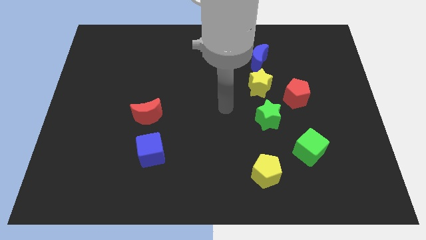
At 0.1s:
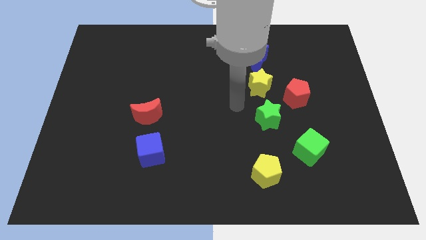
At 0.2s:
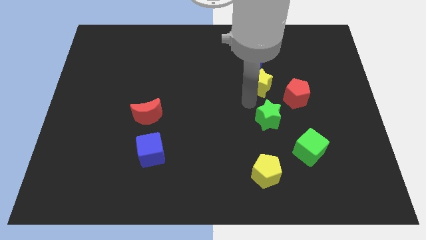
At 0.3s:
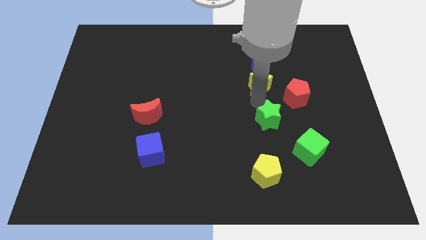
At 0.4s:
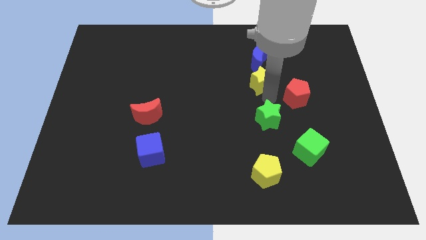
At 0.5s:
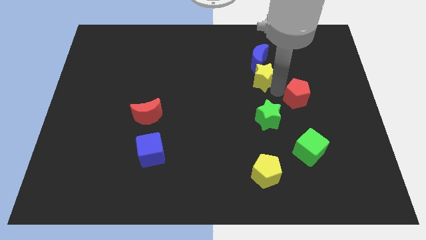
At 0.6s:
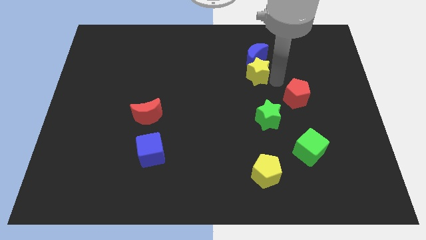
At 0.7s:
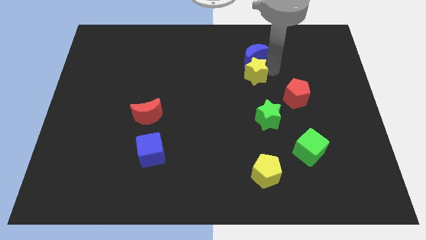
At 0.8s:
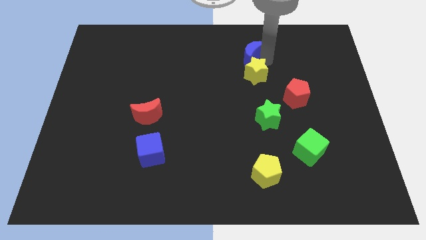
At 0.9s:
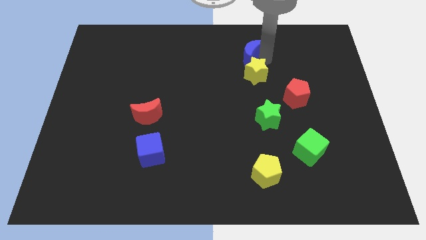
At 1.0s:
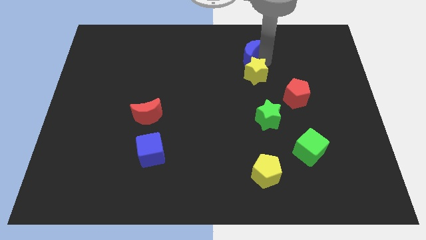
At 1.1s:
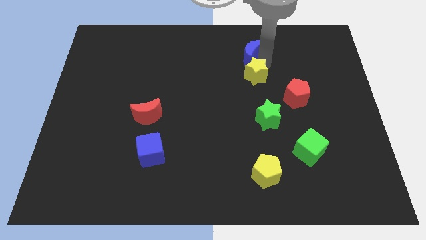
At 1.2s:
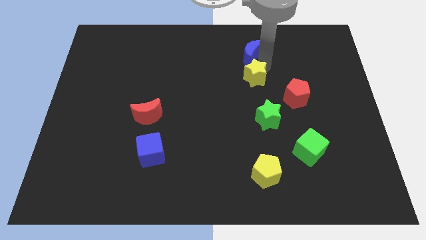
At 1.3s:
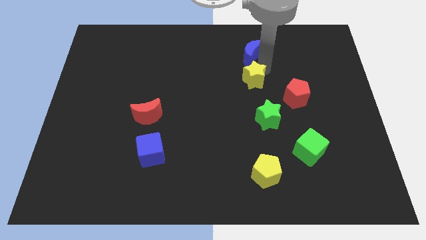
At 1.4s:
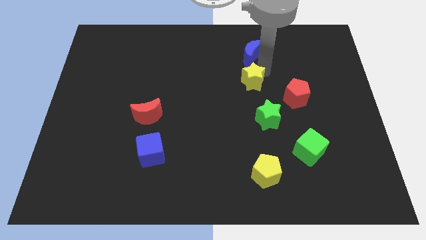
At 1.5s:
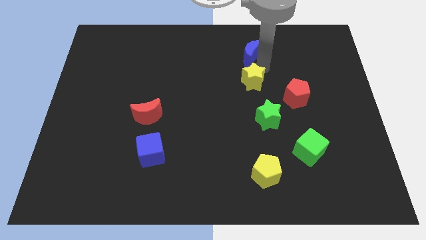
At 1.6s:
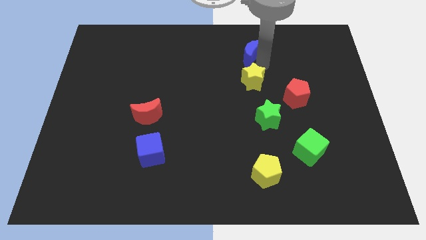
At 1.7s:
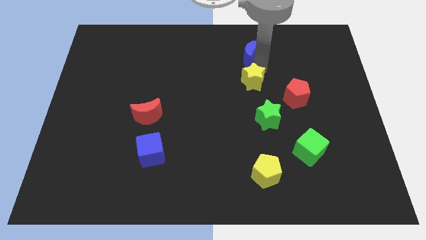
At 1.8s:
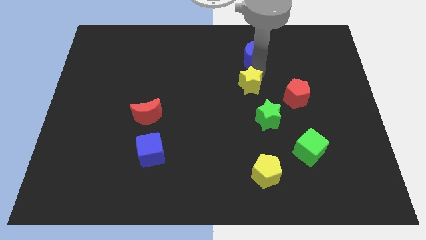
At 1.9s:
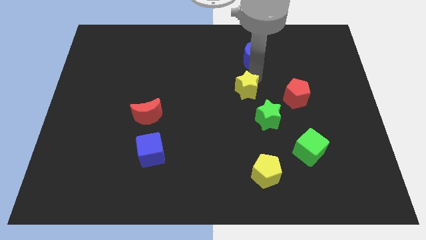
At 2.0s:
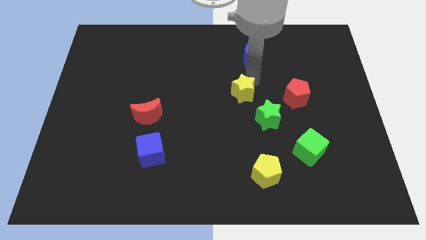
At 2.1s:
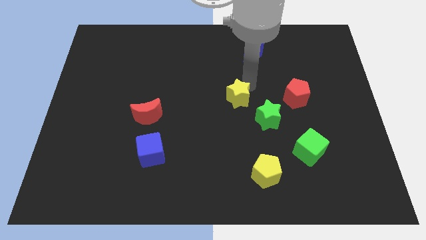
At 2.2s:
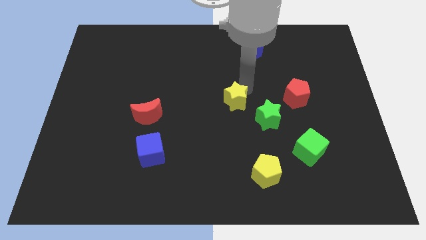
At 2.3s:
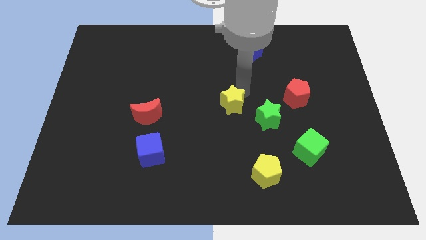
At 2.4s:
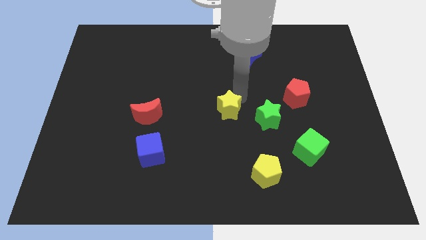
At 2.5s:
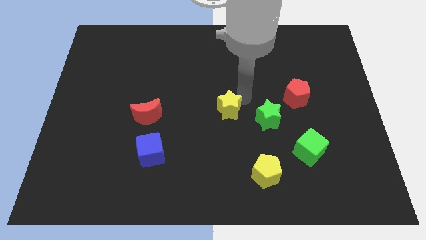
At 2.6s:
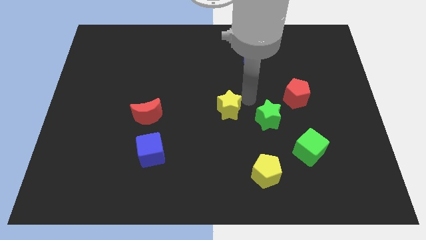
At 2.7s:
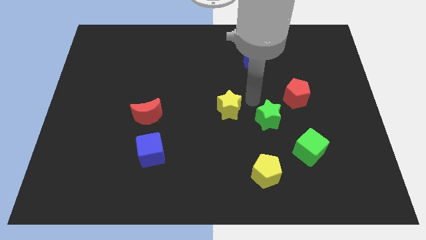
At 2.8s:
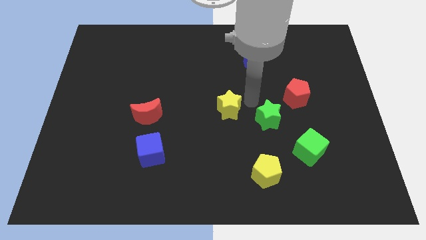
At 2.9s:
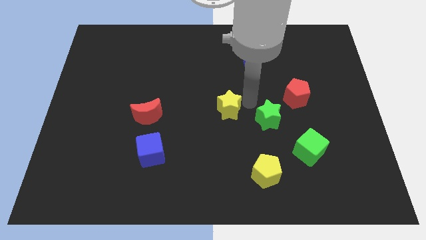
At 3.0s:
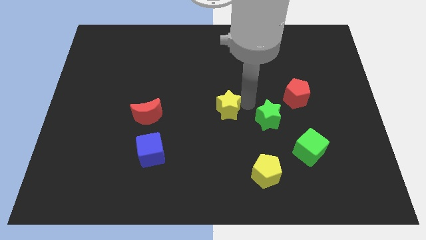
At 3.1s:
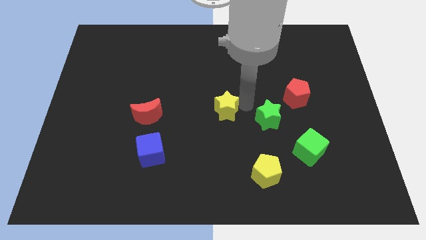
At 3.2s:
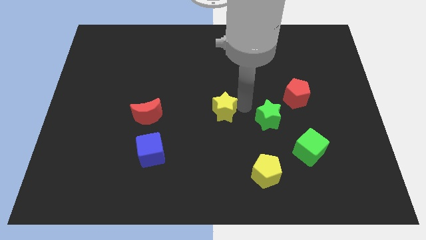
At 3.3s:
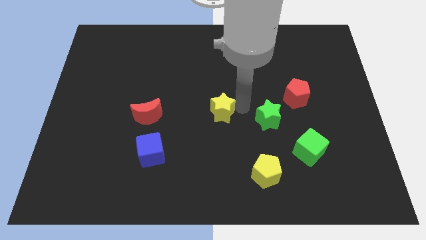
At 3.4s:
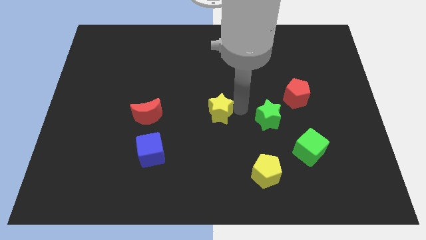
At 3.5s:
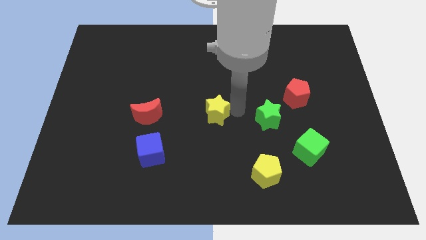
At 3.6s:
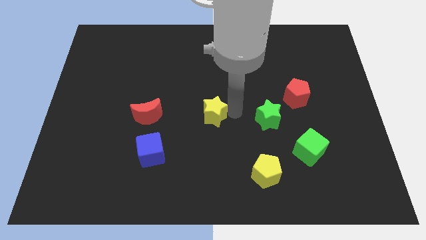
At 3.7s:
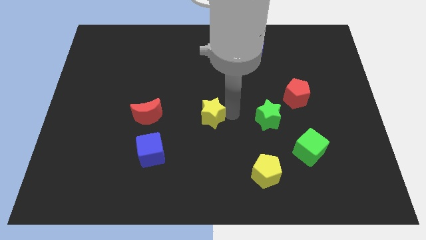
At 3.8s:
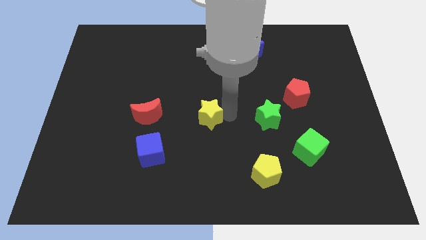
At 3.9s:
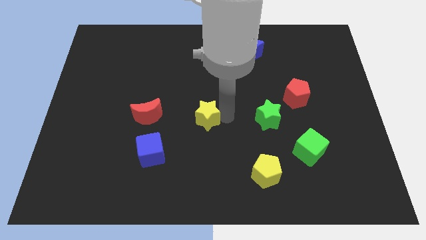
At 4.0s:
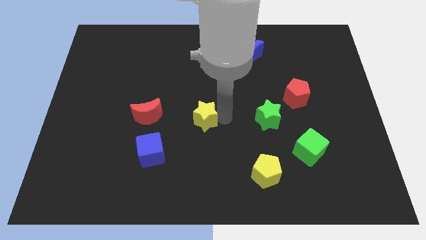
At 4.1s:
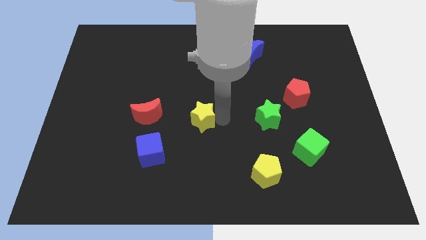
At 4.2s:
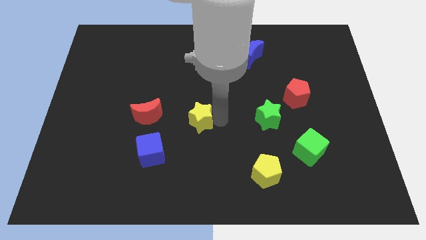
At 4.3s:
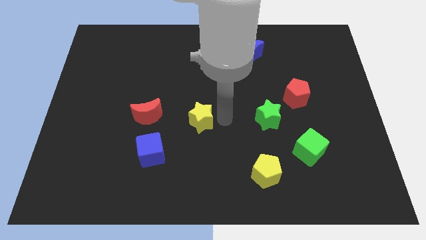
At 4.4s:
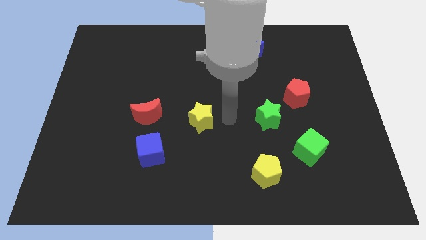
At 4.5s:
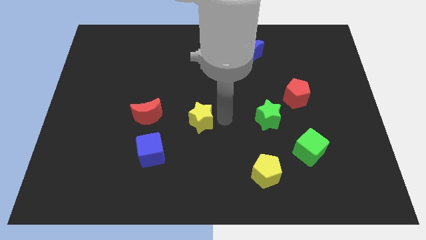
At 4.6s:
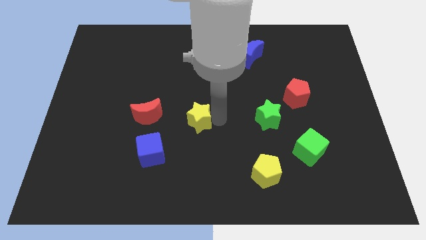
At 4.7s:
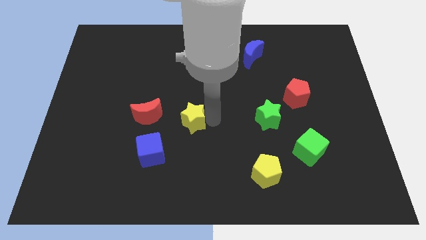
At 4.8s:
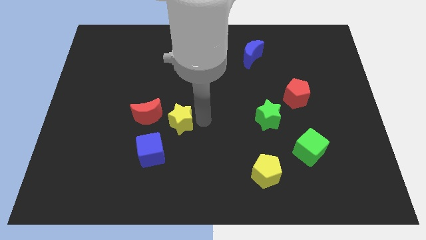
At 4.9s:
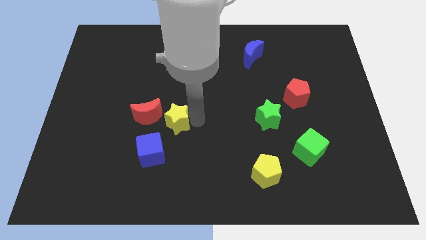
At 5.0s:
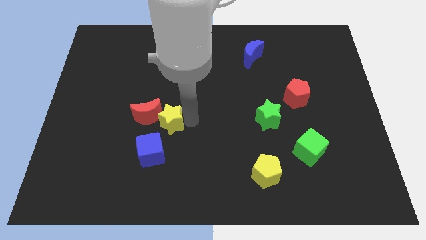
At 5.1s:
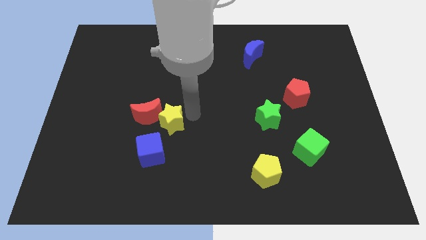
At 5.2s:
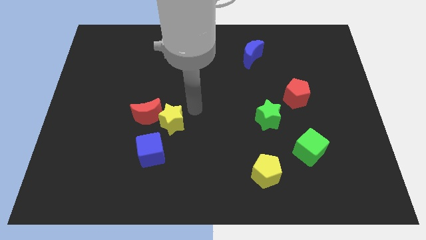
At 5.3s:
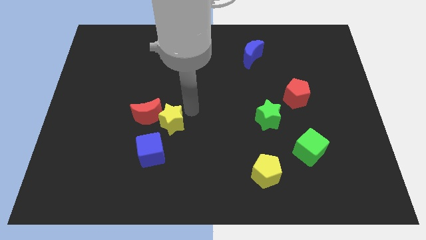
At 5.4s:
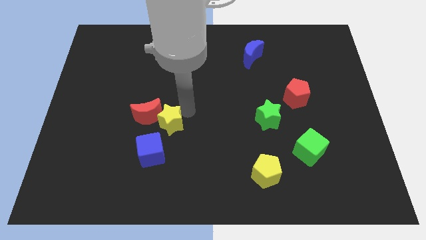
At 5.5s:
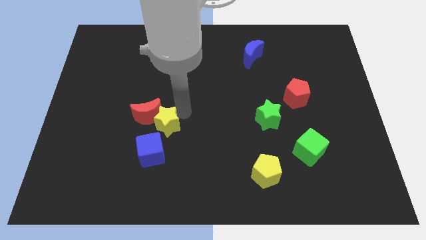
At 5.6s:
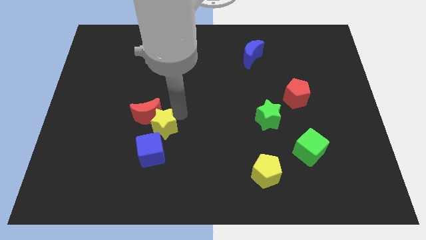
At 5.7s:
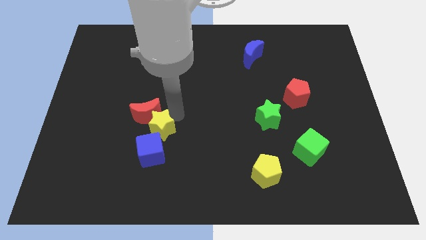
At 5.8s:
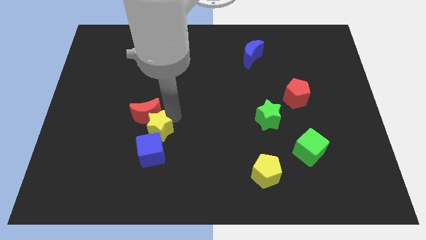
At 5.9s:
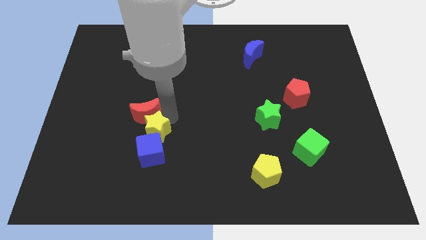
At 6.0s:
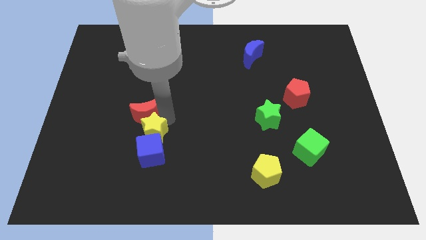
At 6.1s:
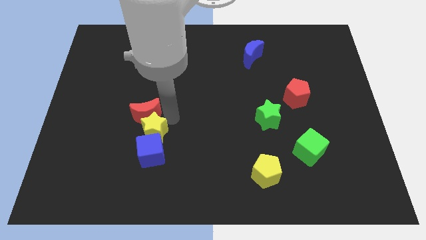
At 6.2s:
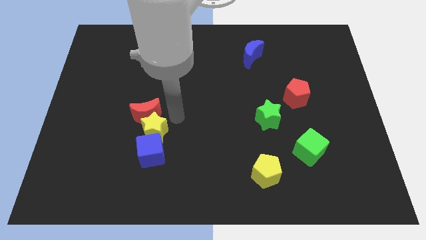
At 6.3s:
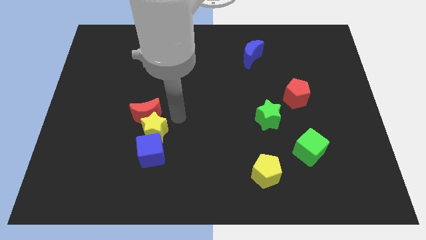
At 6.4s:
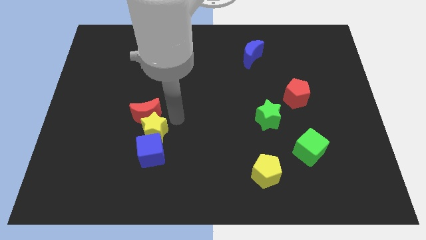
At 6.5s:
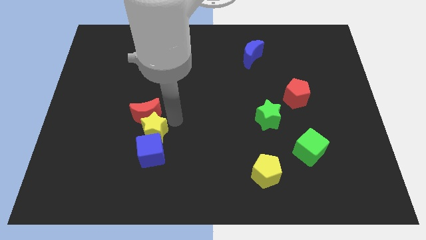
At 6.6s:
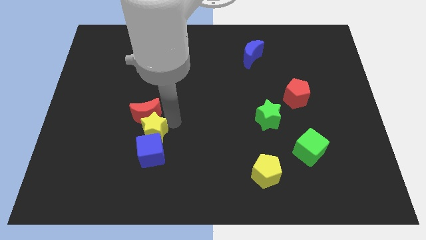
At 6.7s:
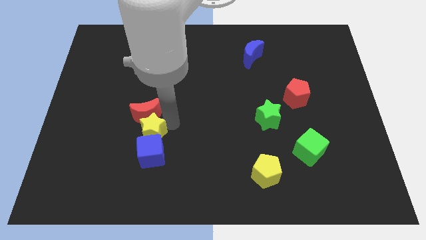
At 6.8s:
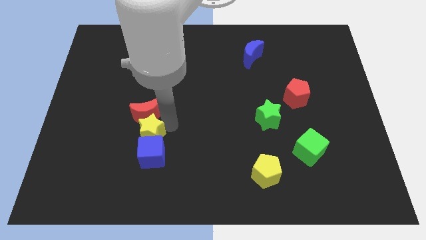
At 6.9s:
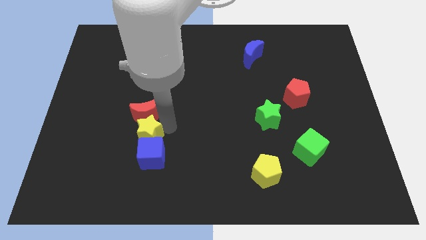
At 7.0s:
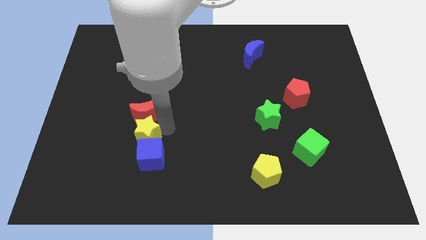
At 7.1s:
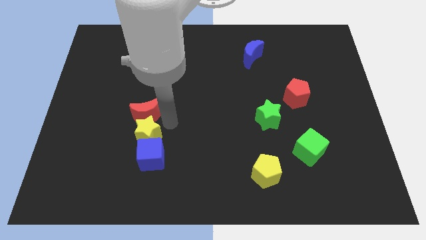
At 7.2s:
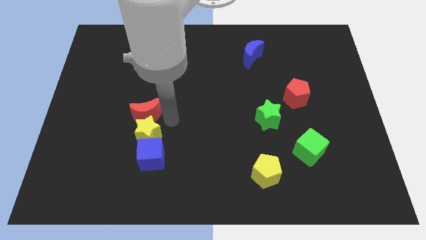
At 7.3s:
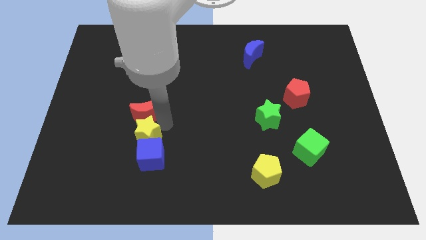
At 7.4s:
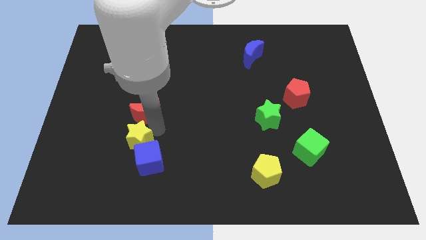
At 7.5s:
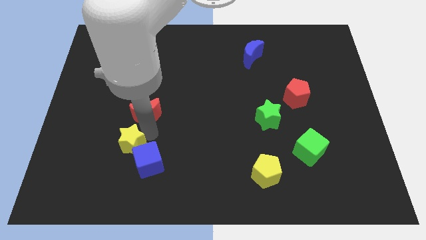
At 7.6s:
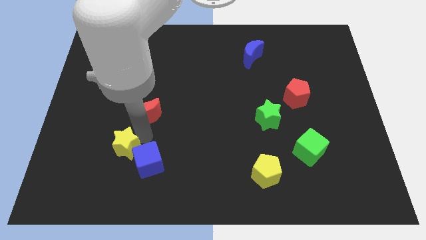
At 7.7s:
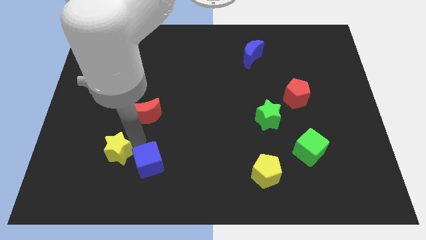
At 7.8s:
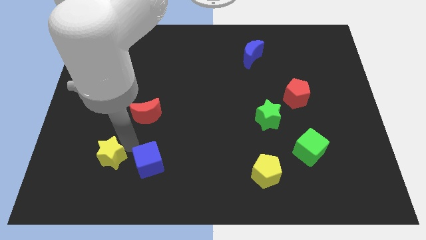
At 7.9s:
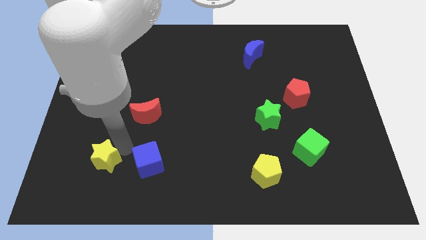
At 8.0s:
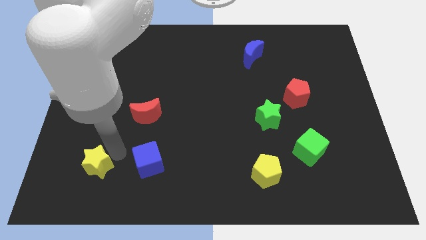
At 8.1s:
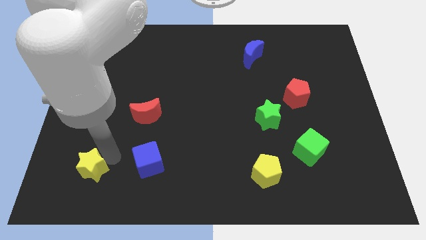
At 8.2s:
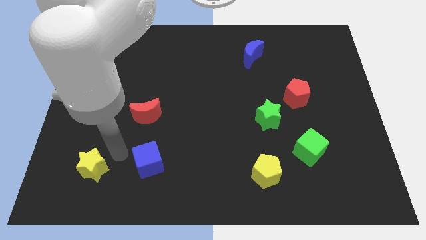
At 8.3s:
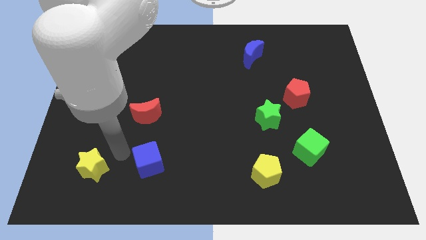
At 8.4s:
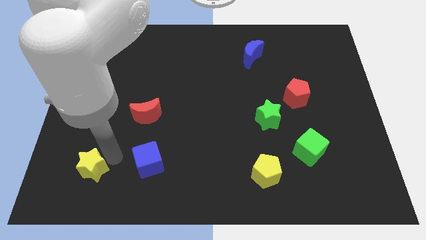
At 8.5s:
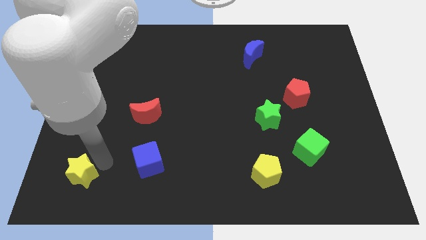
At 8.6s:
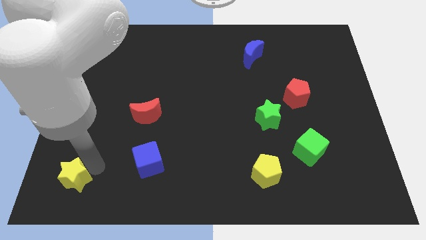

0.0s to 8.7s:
move the yellow star to the bottom left corner
